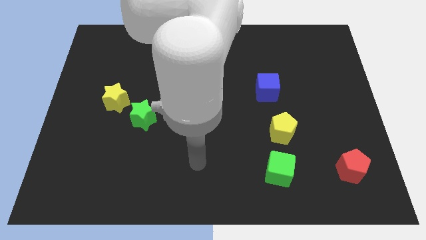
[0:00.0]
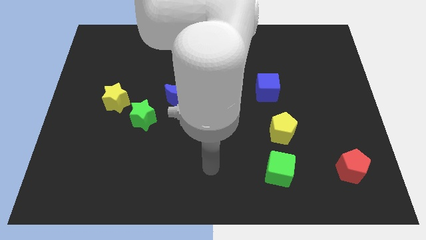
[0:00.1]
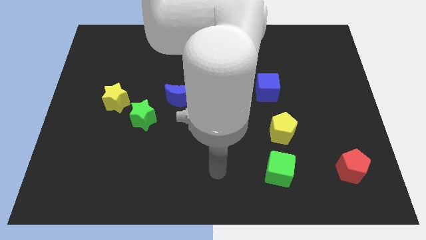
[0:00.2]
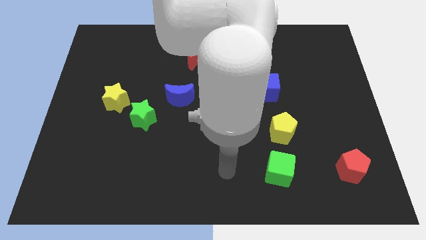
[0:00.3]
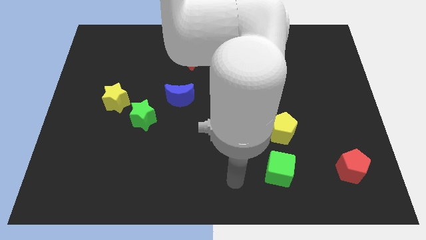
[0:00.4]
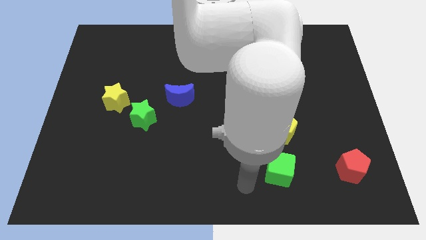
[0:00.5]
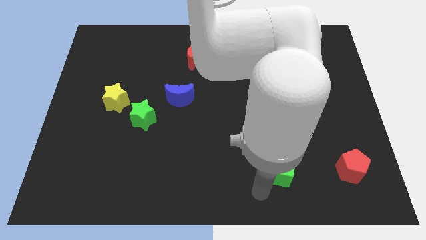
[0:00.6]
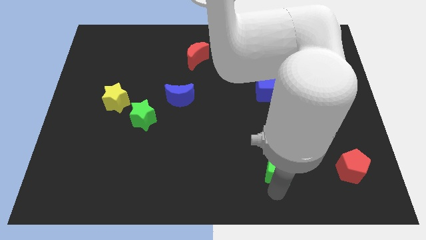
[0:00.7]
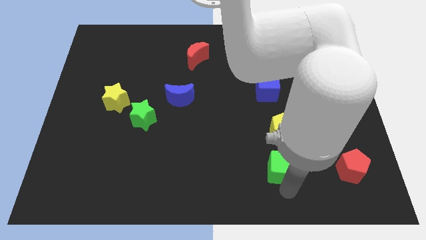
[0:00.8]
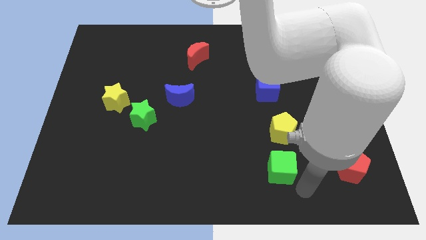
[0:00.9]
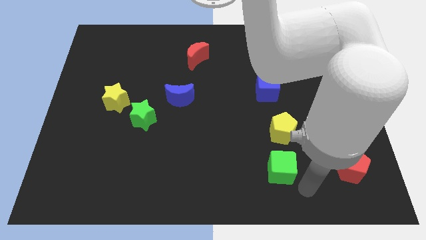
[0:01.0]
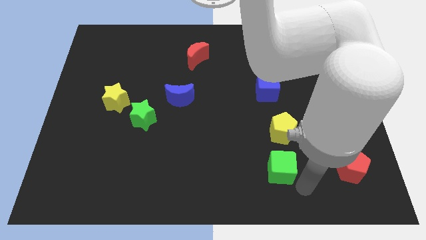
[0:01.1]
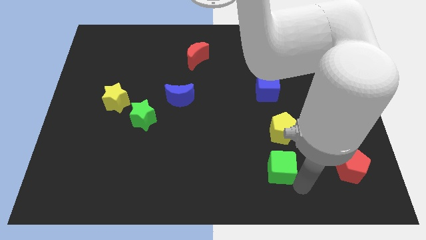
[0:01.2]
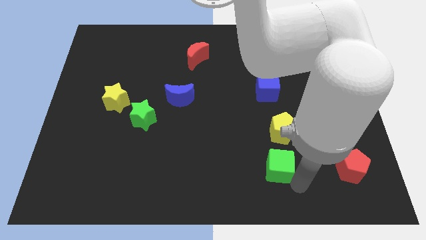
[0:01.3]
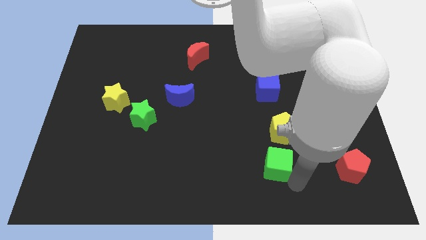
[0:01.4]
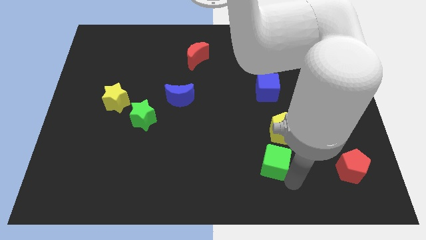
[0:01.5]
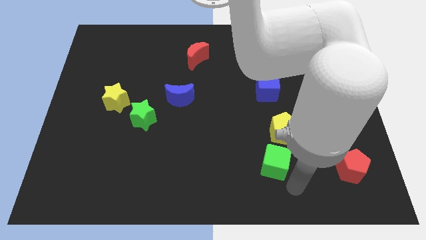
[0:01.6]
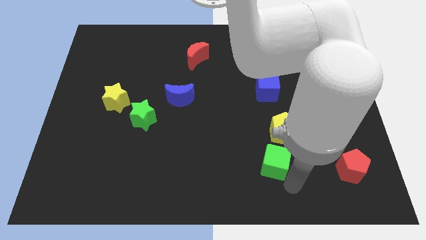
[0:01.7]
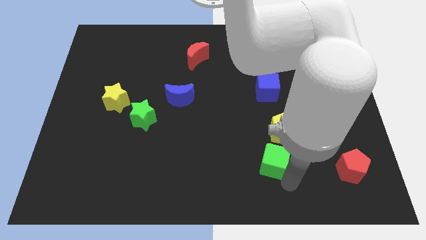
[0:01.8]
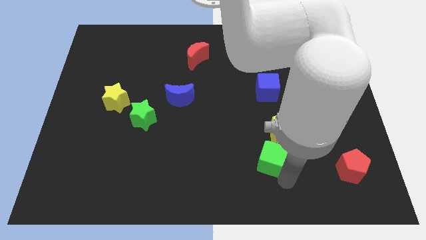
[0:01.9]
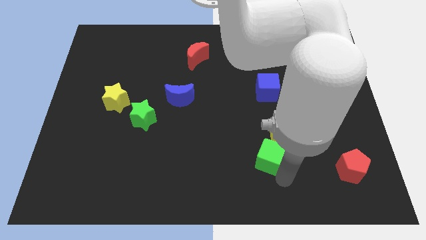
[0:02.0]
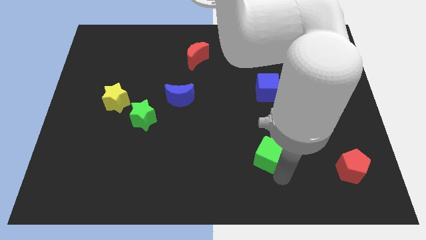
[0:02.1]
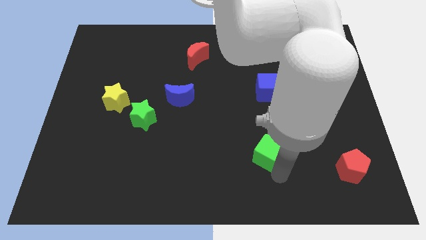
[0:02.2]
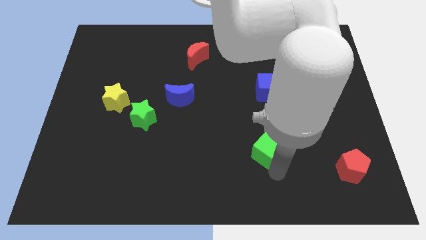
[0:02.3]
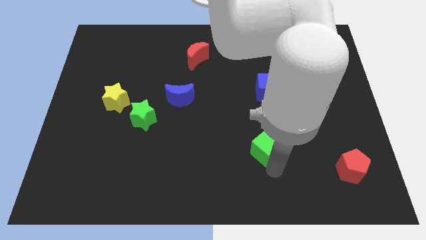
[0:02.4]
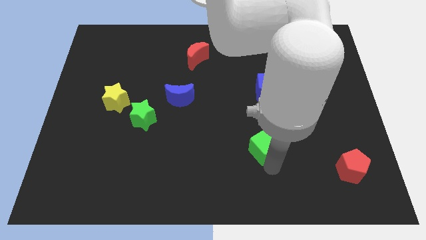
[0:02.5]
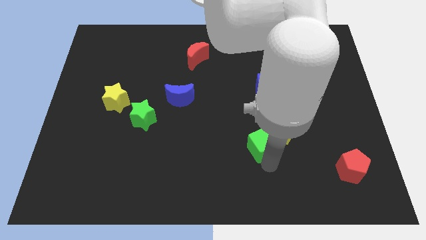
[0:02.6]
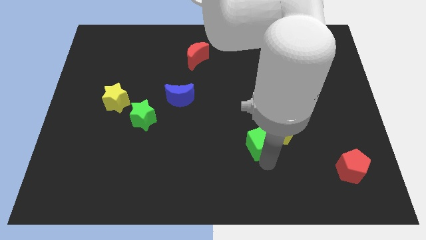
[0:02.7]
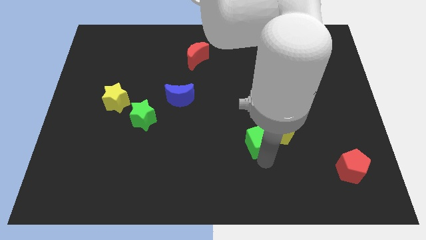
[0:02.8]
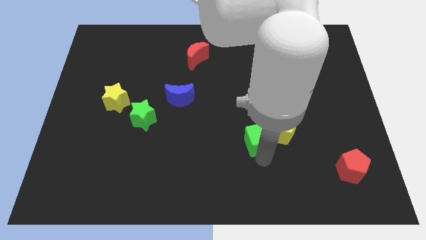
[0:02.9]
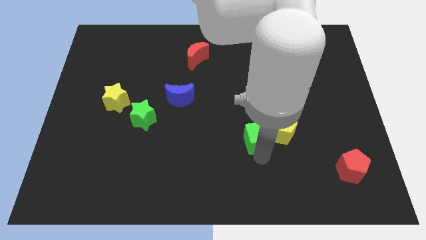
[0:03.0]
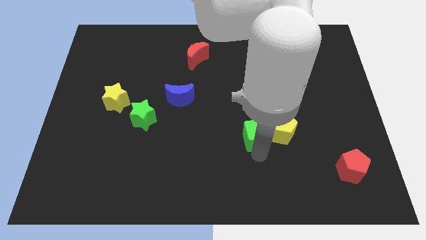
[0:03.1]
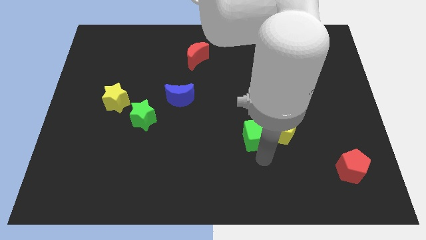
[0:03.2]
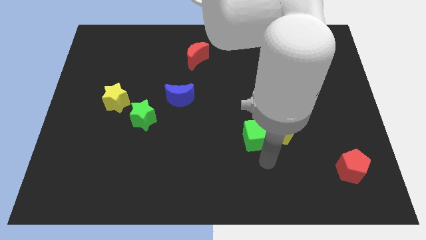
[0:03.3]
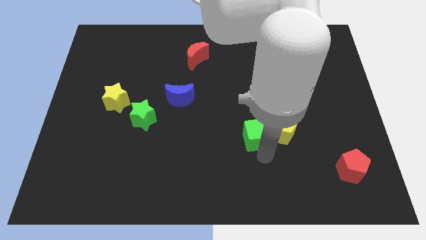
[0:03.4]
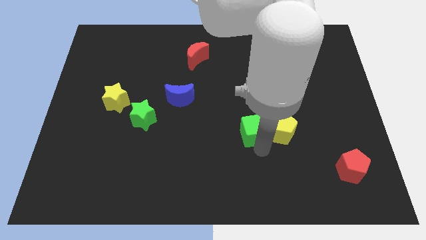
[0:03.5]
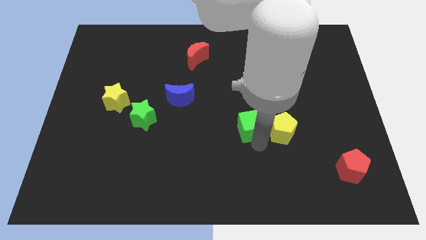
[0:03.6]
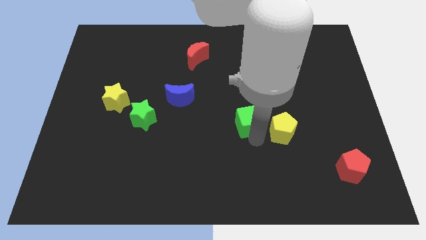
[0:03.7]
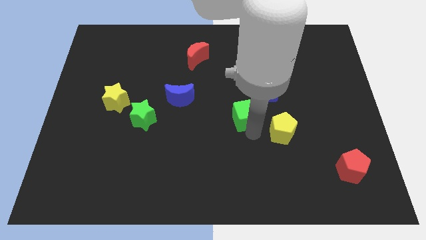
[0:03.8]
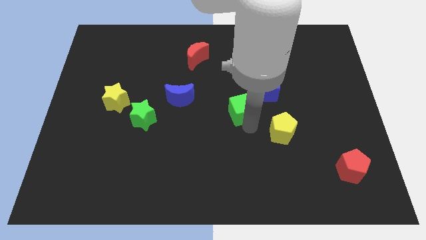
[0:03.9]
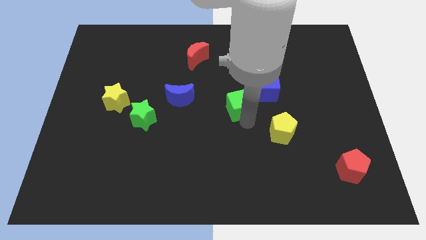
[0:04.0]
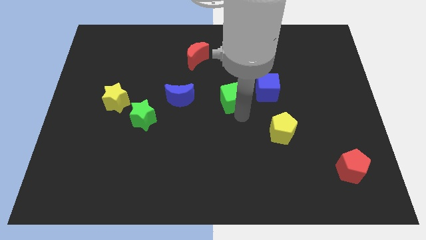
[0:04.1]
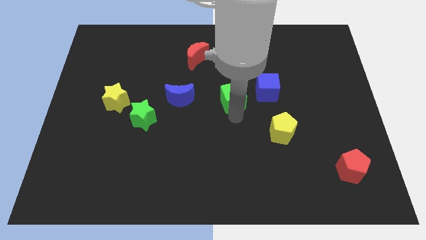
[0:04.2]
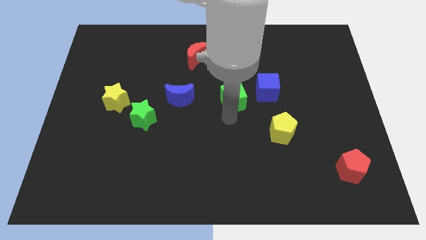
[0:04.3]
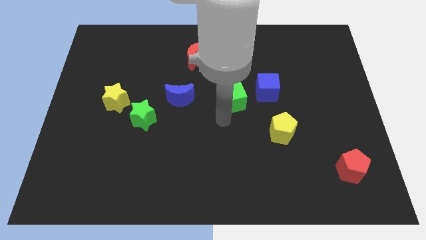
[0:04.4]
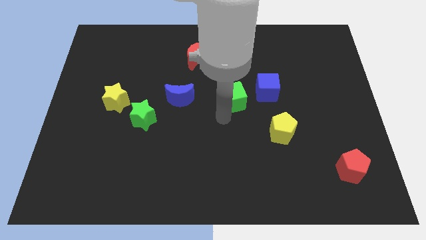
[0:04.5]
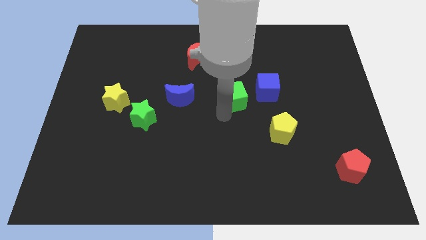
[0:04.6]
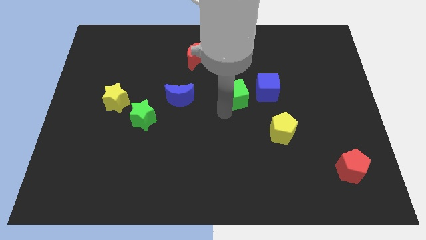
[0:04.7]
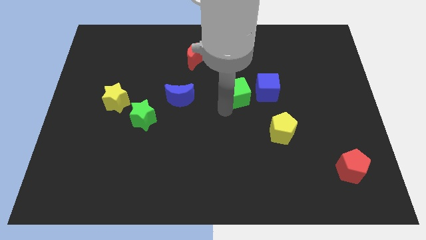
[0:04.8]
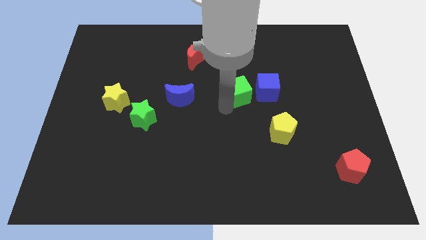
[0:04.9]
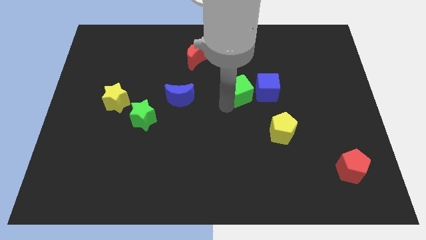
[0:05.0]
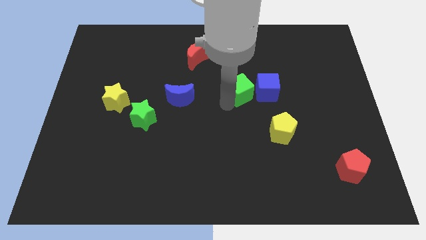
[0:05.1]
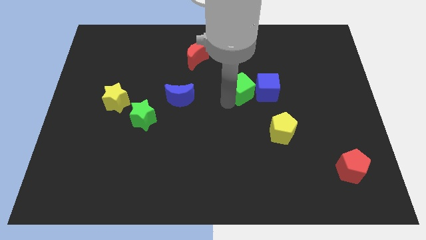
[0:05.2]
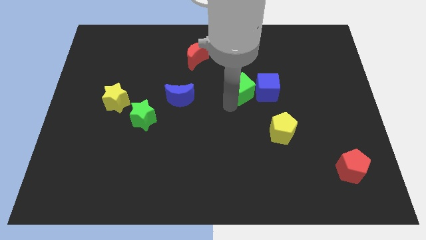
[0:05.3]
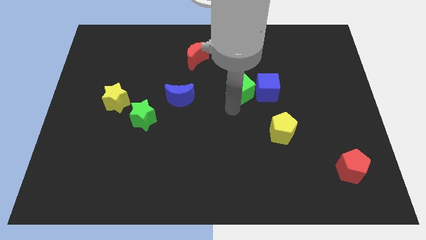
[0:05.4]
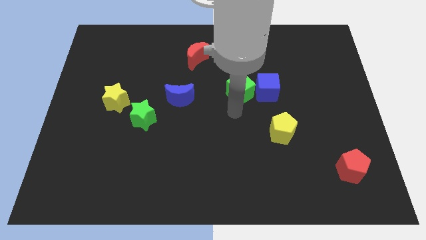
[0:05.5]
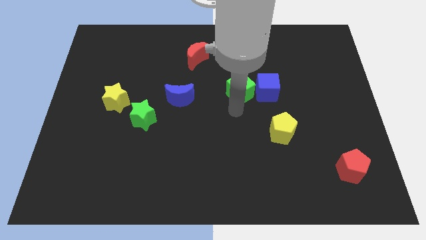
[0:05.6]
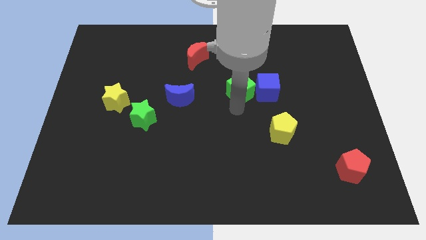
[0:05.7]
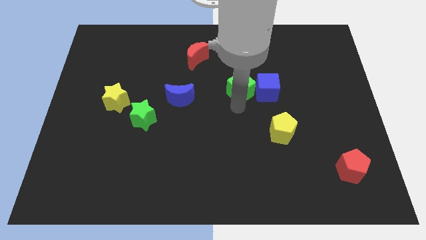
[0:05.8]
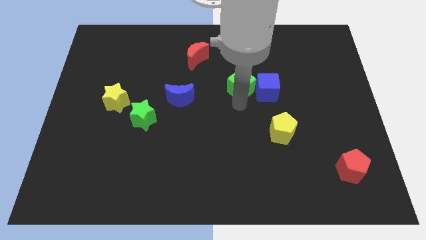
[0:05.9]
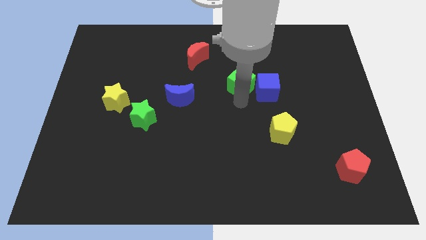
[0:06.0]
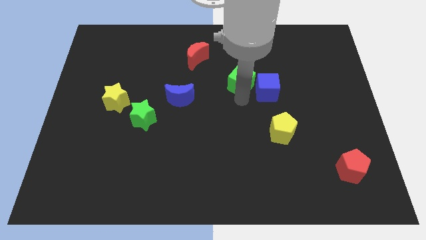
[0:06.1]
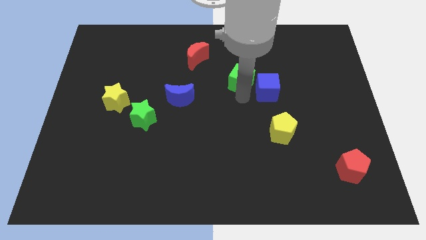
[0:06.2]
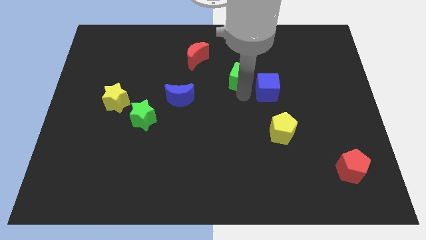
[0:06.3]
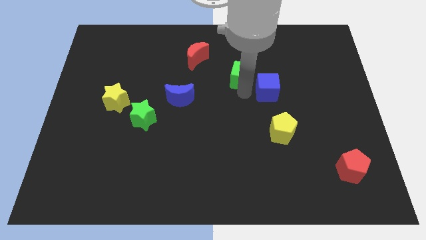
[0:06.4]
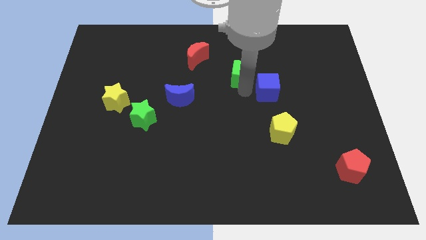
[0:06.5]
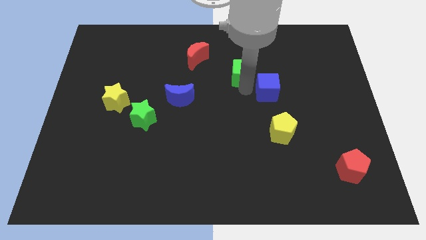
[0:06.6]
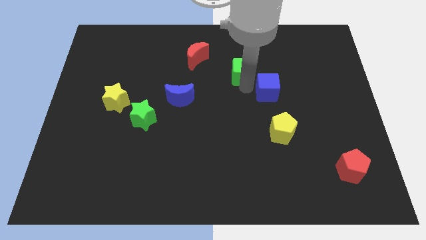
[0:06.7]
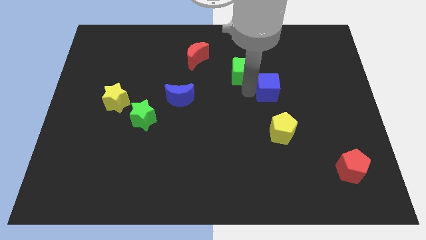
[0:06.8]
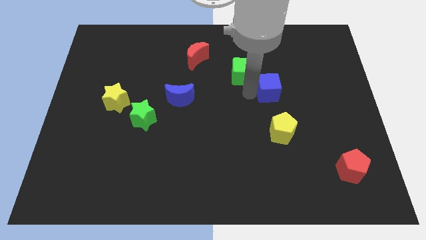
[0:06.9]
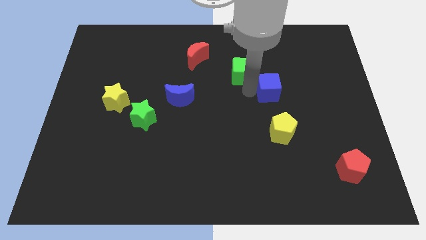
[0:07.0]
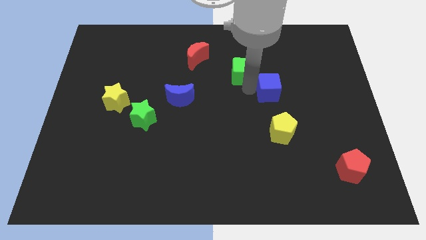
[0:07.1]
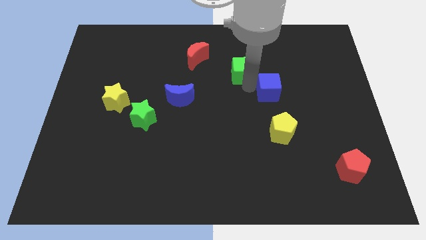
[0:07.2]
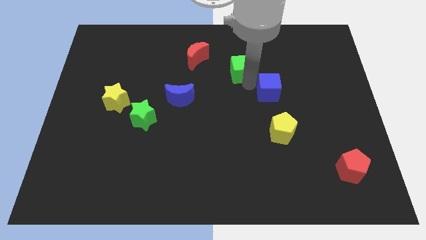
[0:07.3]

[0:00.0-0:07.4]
push the green cube to the right of the red moon

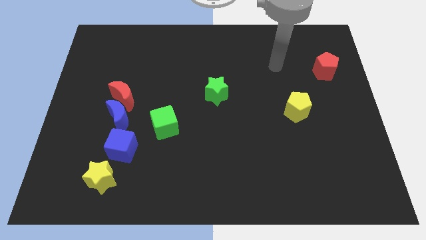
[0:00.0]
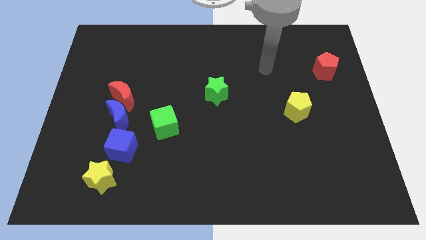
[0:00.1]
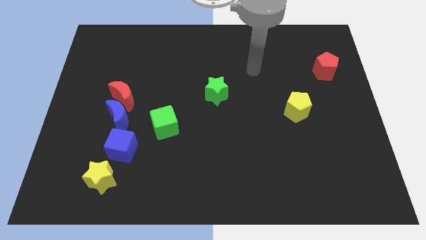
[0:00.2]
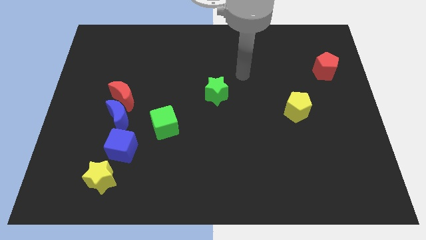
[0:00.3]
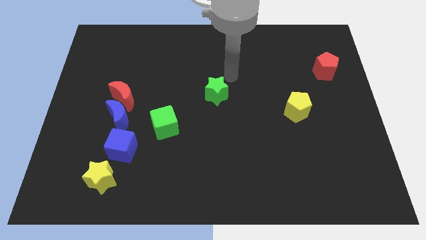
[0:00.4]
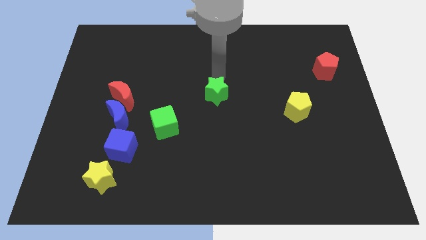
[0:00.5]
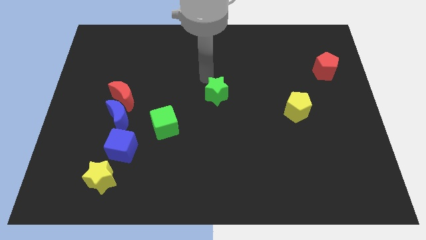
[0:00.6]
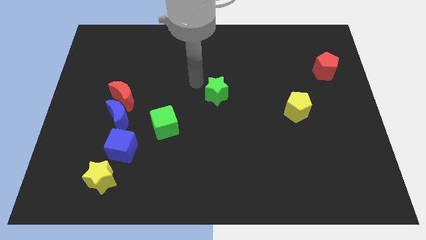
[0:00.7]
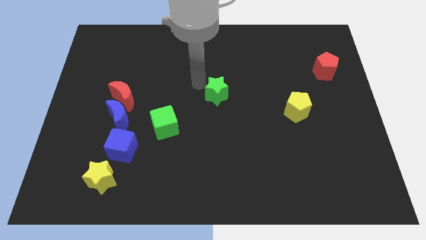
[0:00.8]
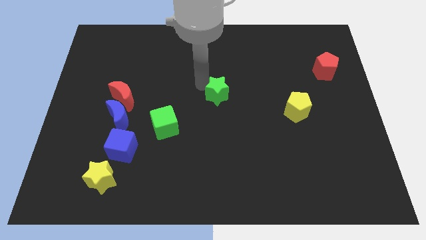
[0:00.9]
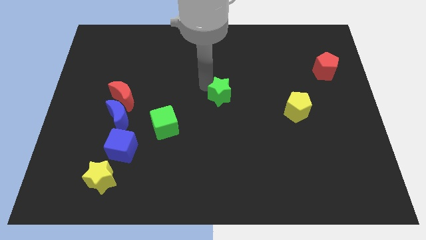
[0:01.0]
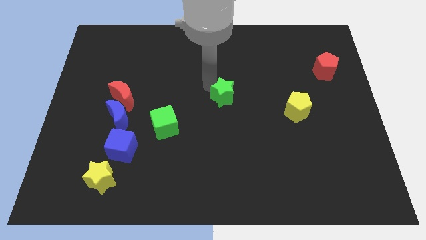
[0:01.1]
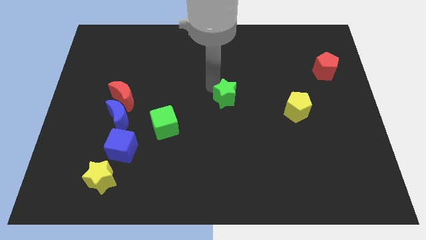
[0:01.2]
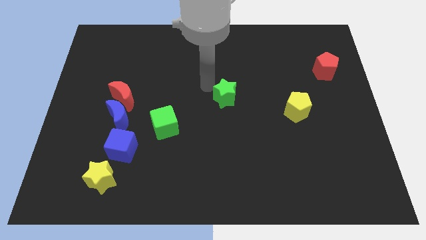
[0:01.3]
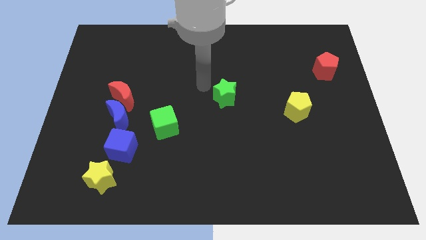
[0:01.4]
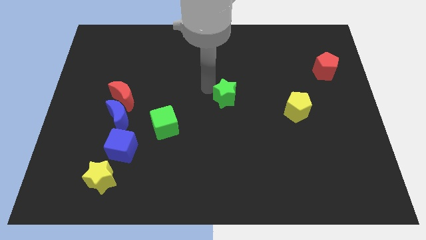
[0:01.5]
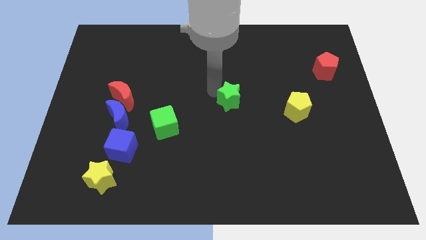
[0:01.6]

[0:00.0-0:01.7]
put the green star left of the yellow pentagon
